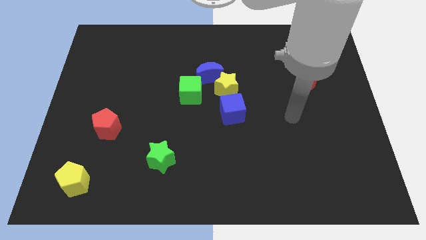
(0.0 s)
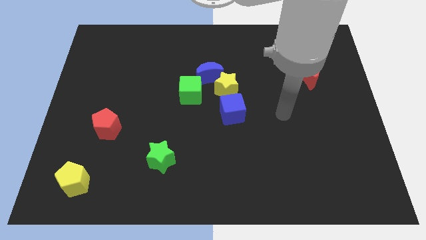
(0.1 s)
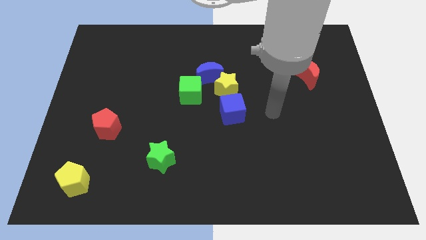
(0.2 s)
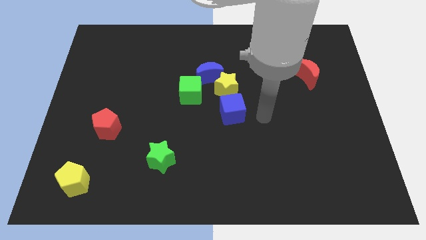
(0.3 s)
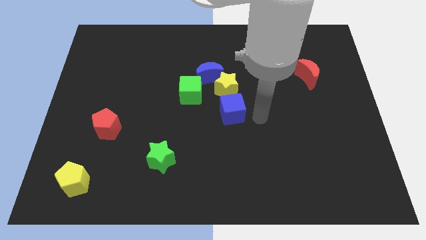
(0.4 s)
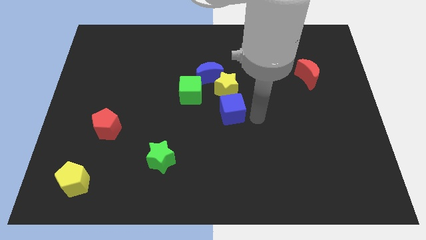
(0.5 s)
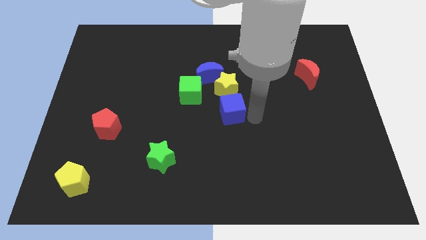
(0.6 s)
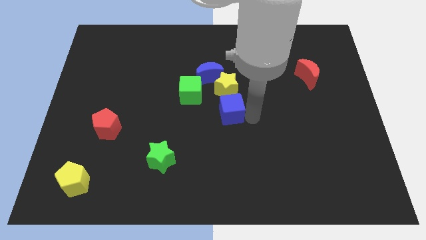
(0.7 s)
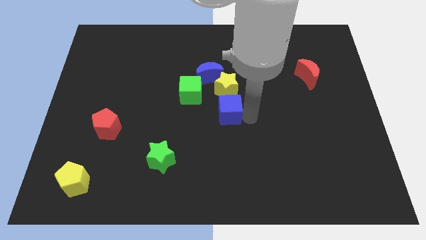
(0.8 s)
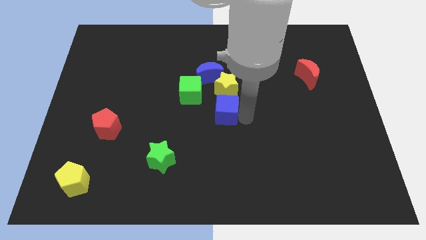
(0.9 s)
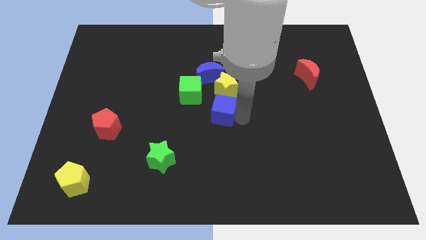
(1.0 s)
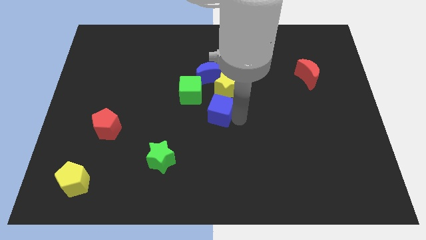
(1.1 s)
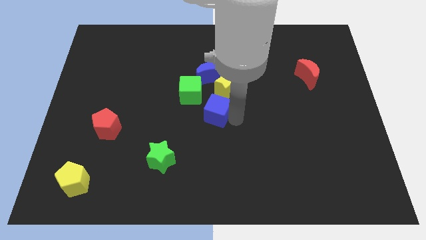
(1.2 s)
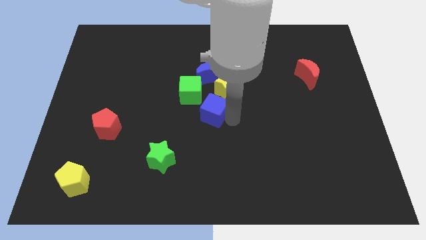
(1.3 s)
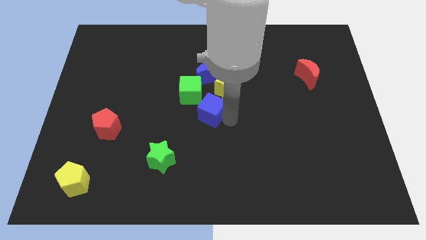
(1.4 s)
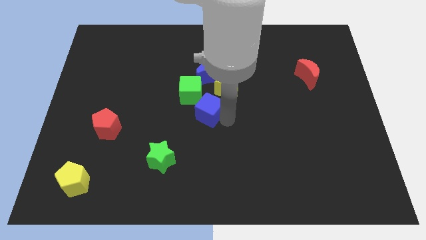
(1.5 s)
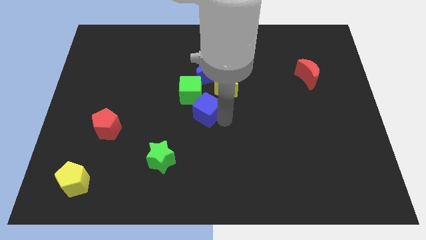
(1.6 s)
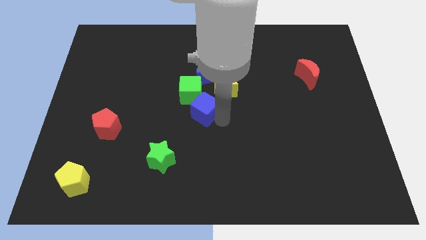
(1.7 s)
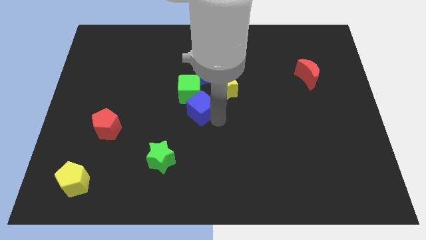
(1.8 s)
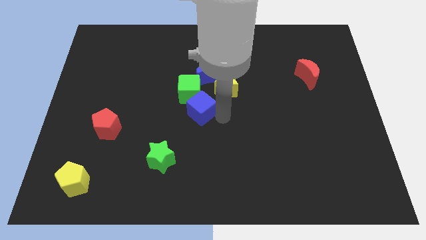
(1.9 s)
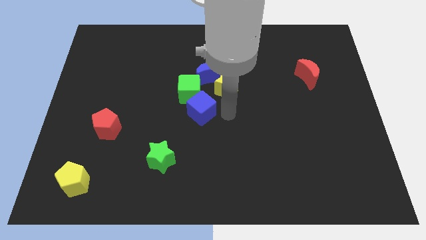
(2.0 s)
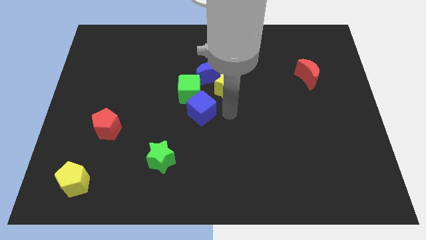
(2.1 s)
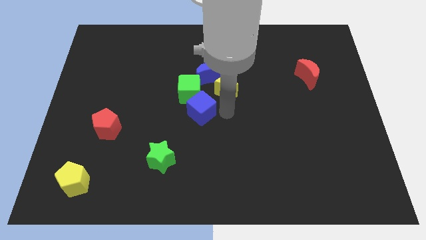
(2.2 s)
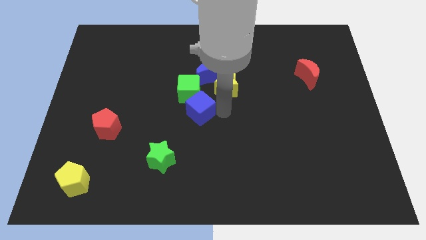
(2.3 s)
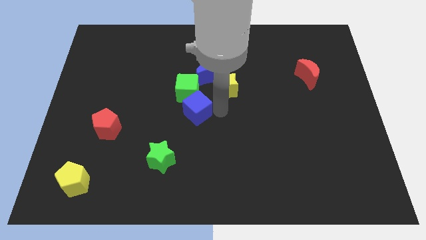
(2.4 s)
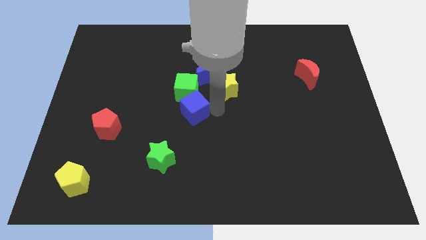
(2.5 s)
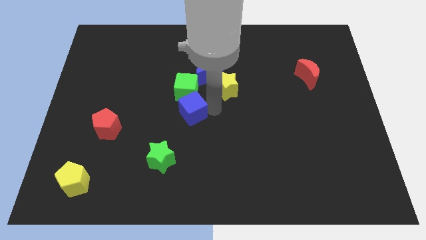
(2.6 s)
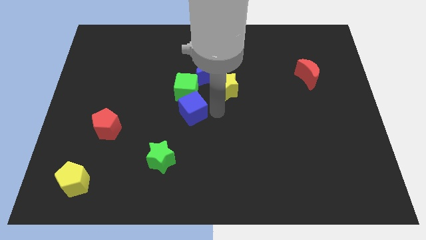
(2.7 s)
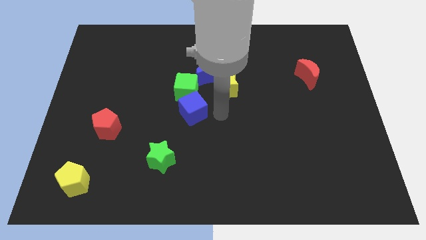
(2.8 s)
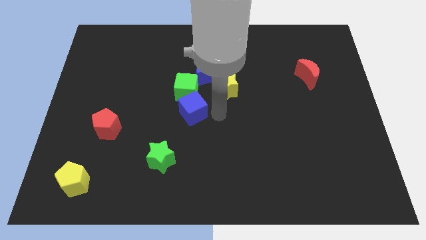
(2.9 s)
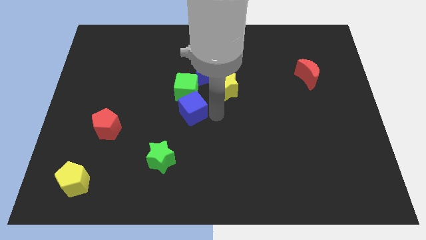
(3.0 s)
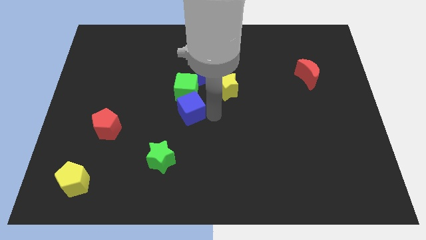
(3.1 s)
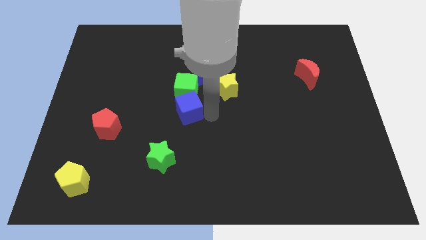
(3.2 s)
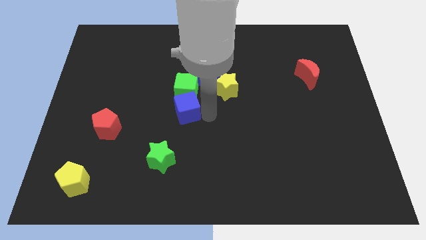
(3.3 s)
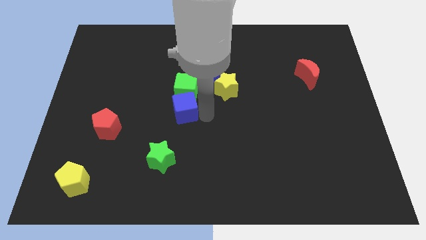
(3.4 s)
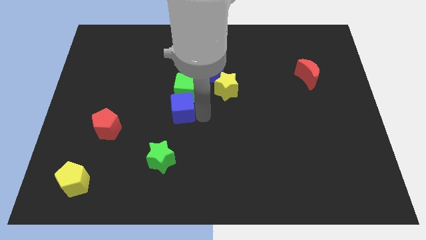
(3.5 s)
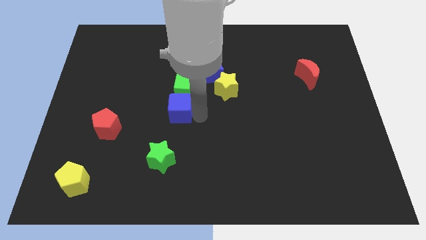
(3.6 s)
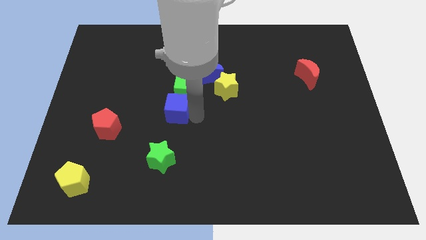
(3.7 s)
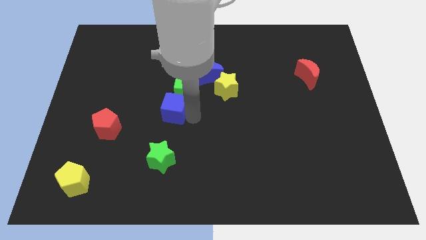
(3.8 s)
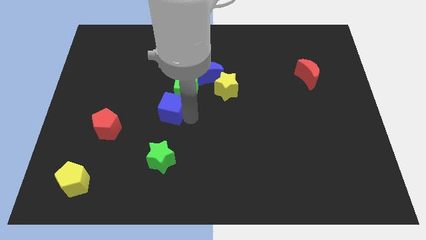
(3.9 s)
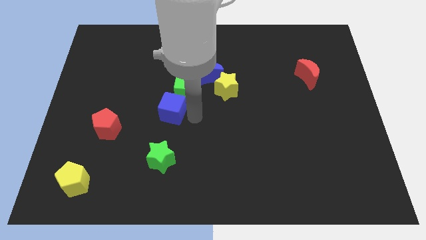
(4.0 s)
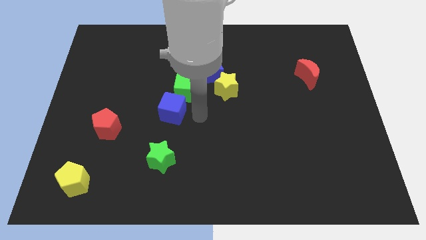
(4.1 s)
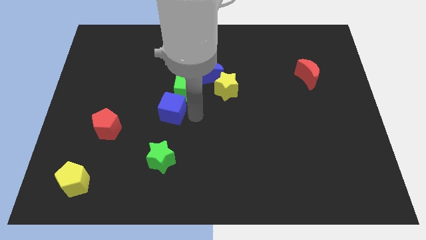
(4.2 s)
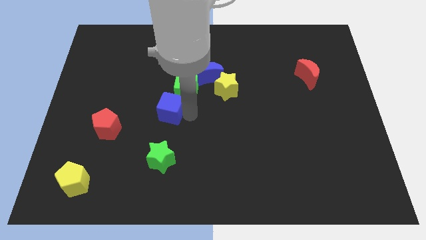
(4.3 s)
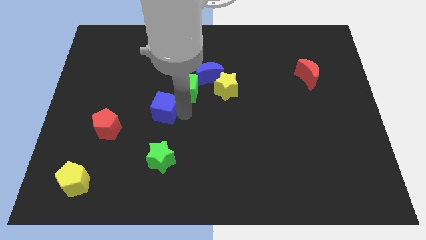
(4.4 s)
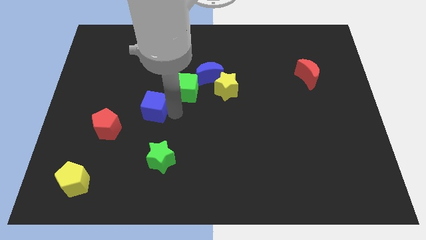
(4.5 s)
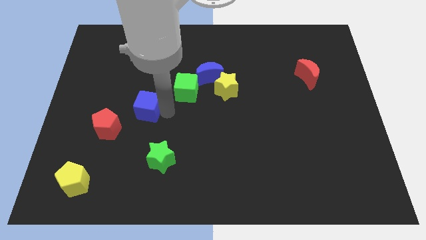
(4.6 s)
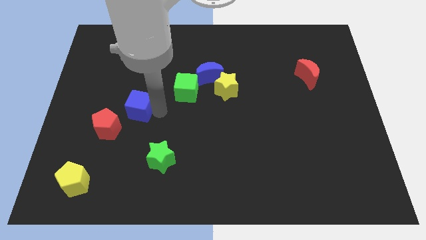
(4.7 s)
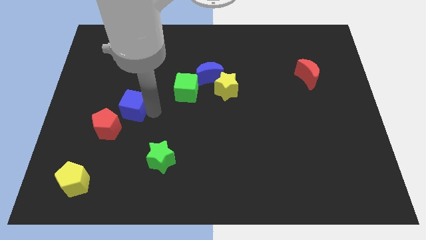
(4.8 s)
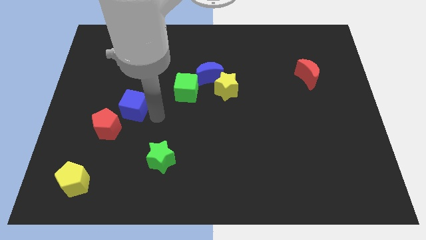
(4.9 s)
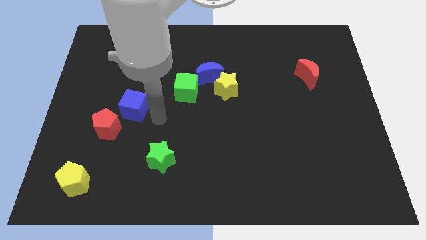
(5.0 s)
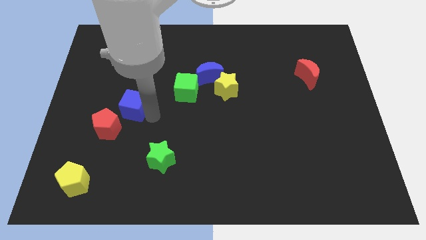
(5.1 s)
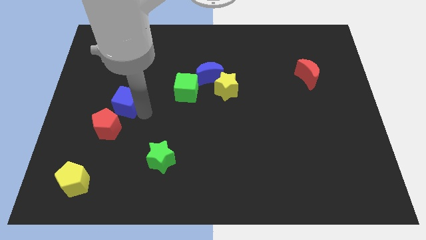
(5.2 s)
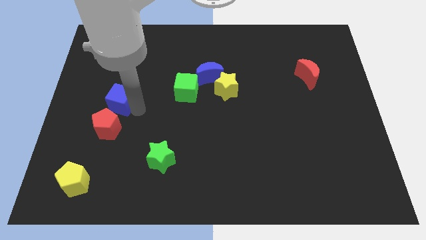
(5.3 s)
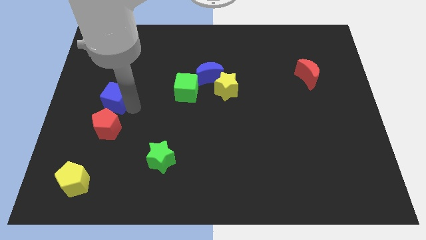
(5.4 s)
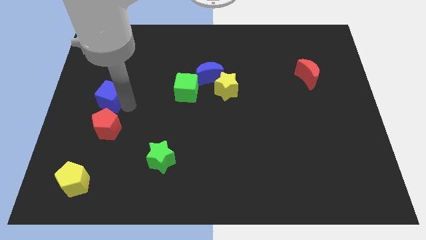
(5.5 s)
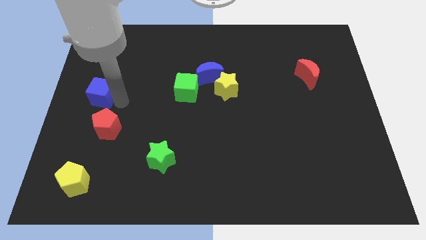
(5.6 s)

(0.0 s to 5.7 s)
put the blue cube to the center left
